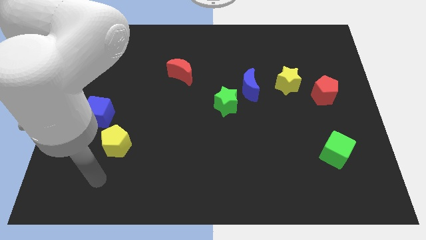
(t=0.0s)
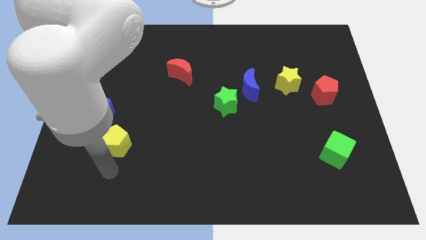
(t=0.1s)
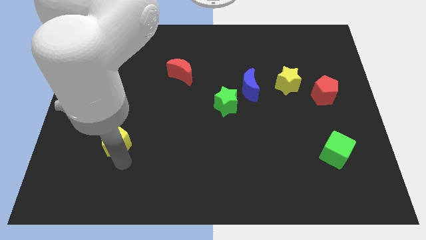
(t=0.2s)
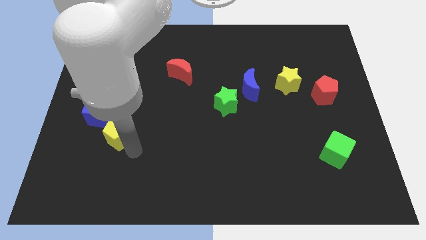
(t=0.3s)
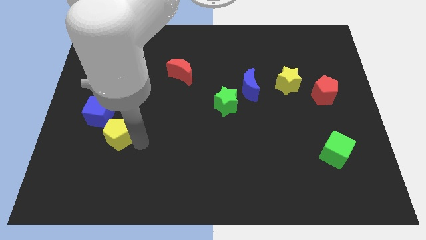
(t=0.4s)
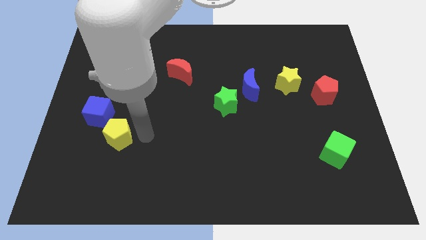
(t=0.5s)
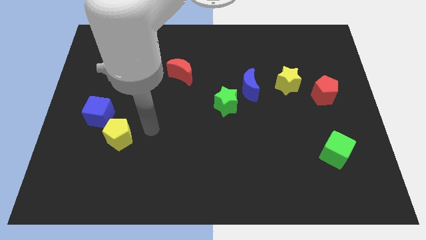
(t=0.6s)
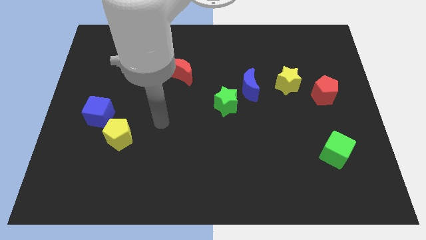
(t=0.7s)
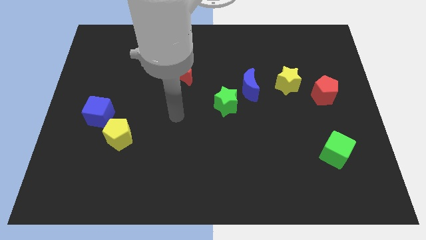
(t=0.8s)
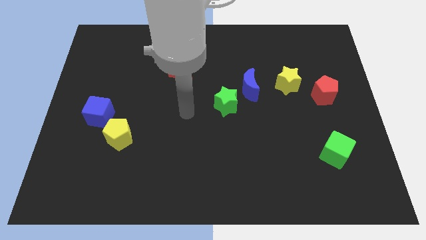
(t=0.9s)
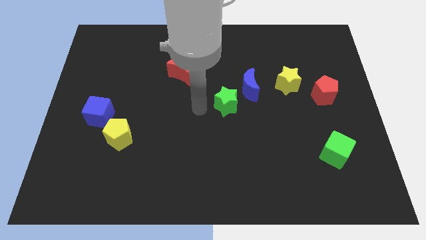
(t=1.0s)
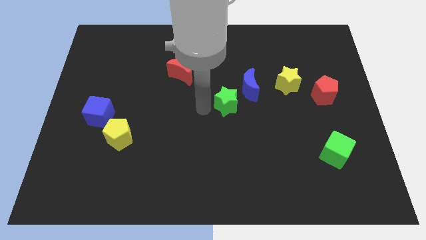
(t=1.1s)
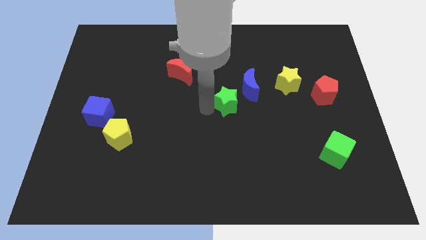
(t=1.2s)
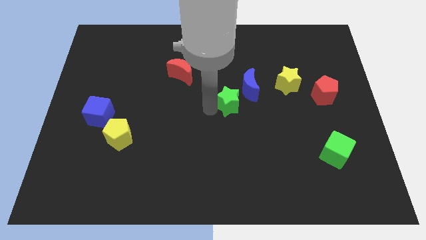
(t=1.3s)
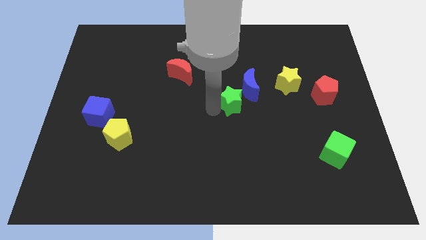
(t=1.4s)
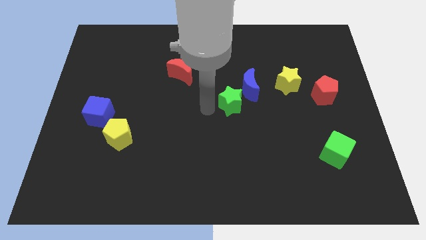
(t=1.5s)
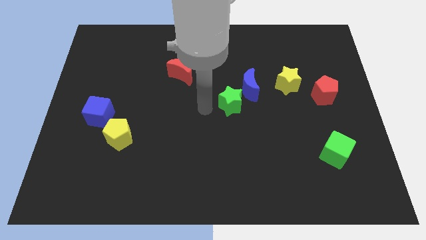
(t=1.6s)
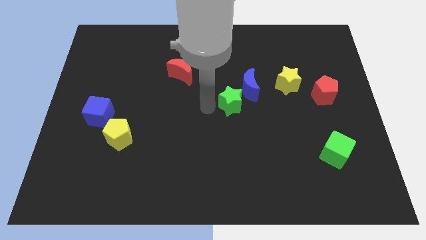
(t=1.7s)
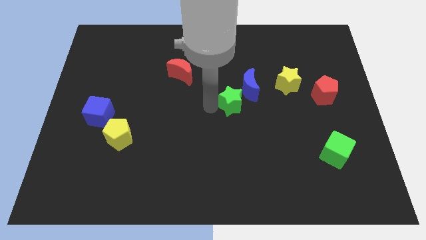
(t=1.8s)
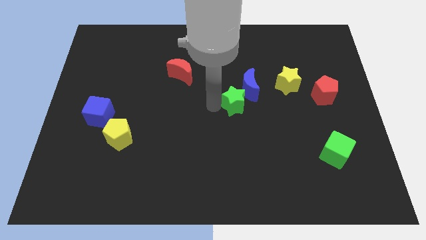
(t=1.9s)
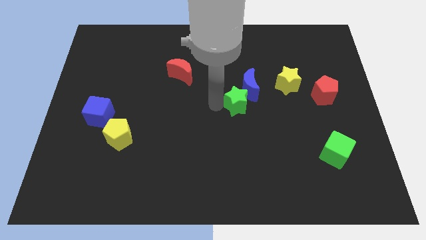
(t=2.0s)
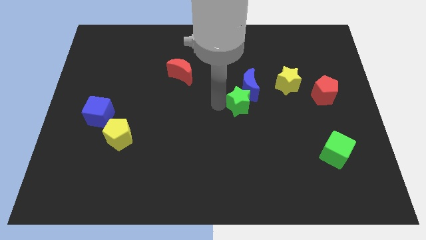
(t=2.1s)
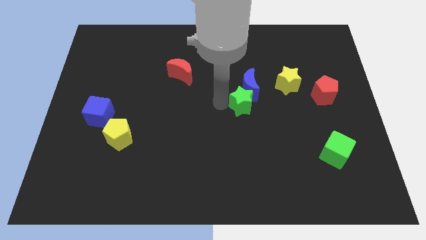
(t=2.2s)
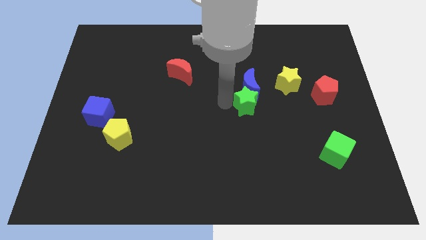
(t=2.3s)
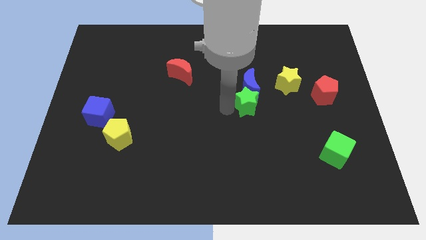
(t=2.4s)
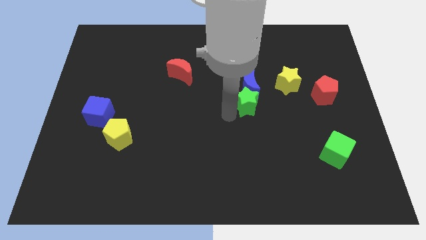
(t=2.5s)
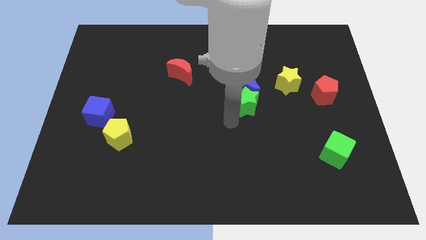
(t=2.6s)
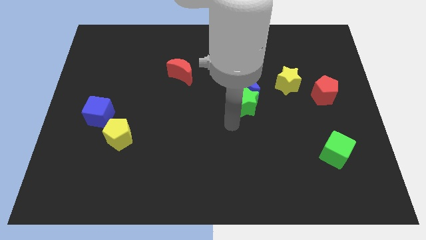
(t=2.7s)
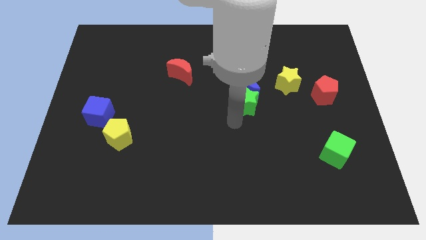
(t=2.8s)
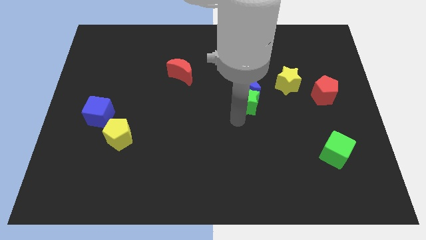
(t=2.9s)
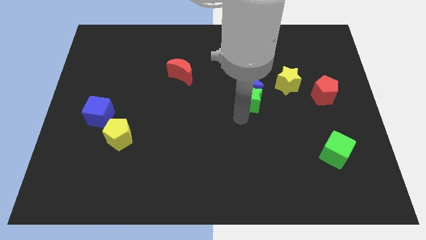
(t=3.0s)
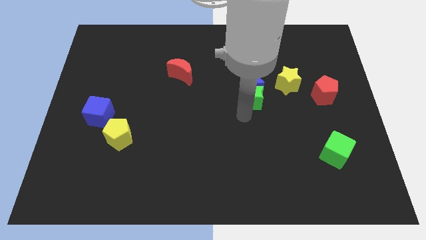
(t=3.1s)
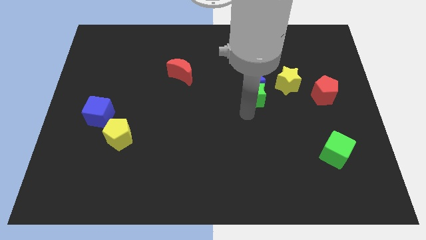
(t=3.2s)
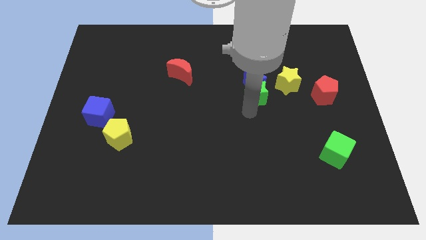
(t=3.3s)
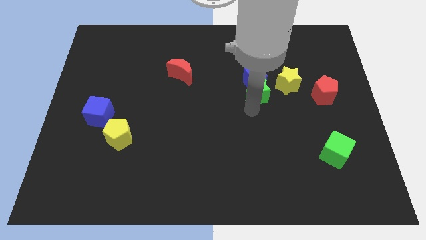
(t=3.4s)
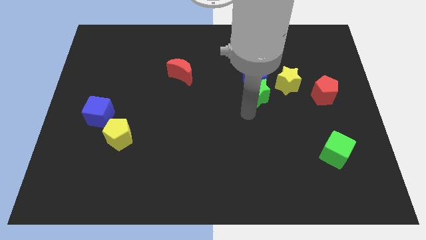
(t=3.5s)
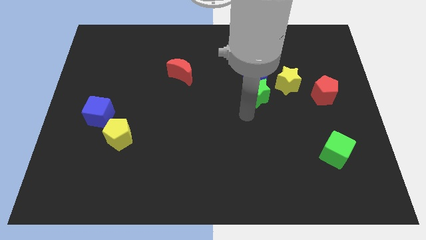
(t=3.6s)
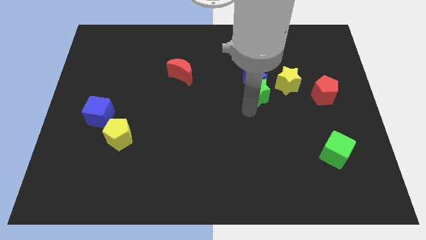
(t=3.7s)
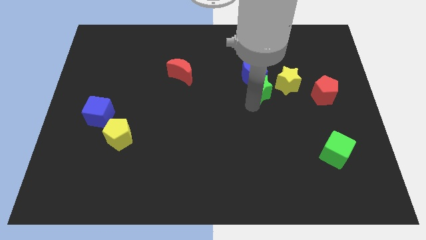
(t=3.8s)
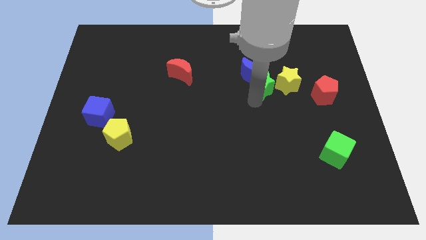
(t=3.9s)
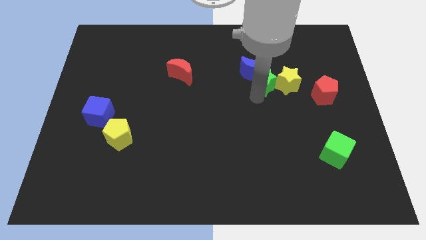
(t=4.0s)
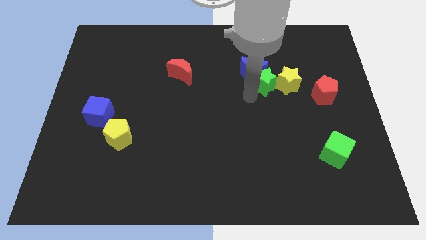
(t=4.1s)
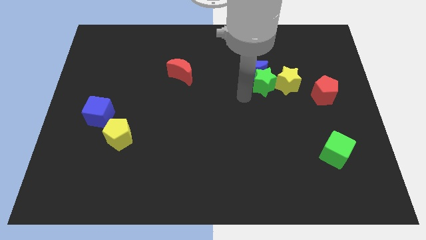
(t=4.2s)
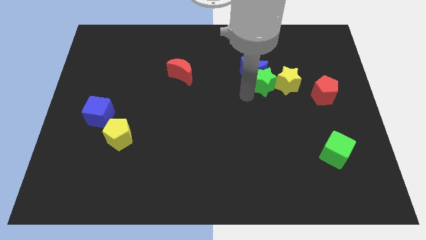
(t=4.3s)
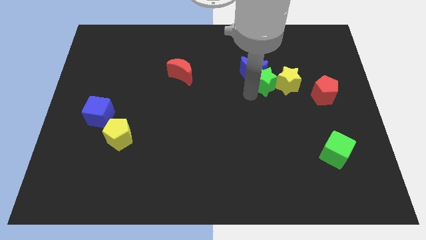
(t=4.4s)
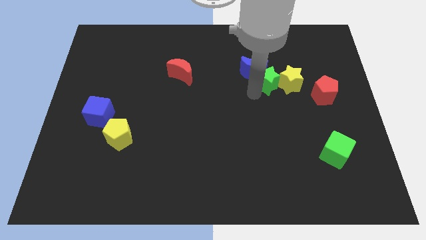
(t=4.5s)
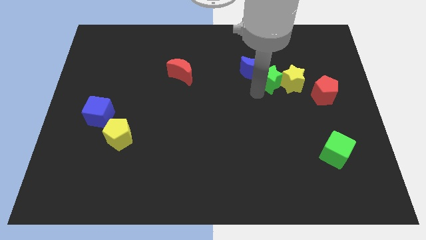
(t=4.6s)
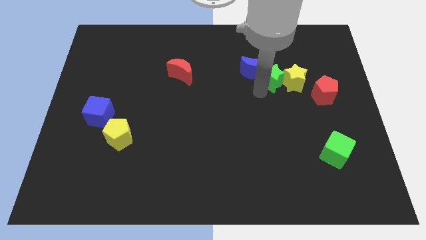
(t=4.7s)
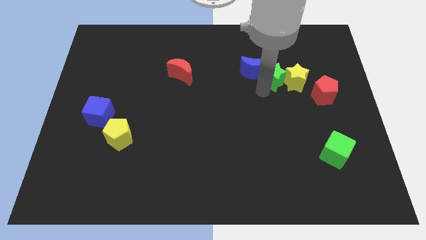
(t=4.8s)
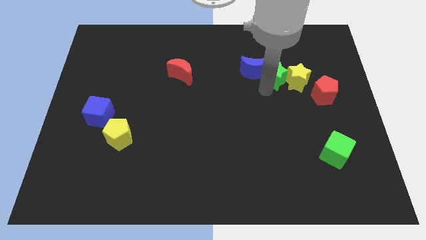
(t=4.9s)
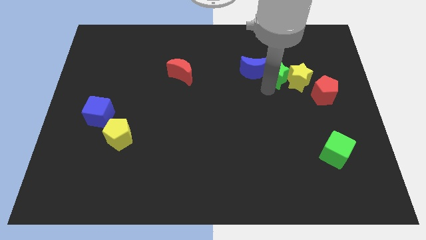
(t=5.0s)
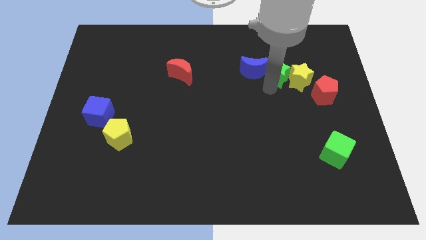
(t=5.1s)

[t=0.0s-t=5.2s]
put the green star to the top left side of the red pentagon

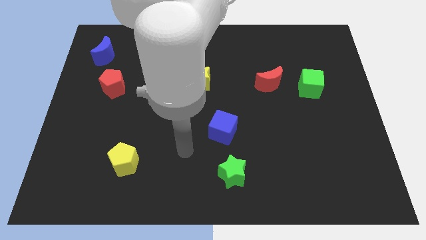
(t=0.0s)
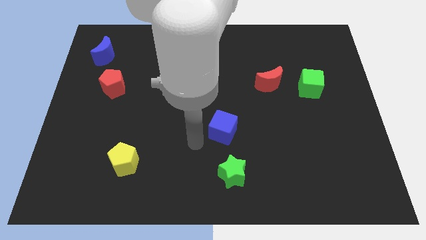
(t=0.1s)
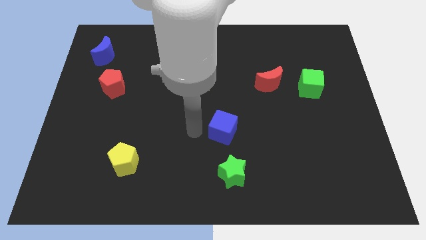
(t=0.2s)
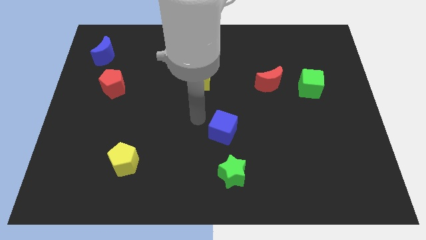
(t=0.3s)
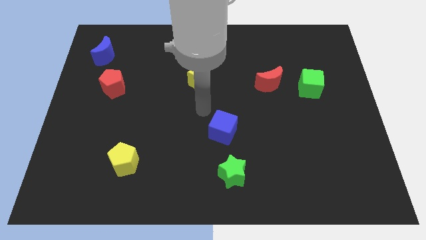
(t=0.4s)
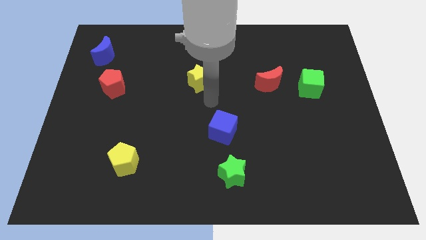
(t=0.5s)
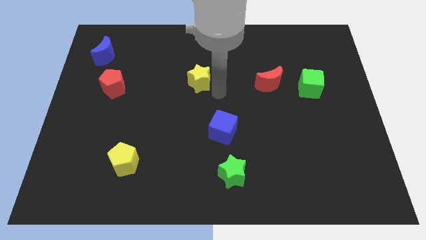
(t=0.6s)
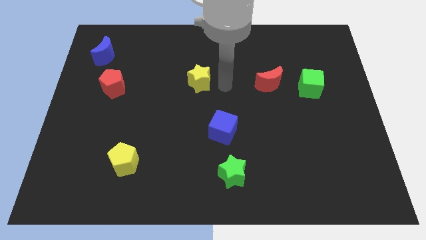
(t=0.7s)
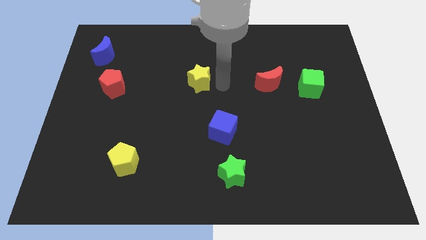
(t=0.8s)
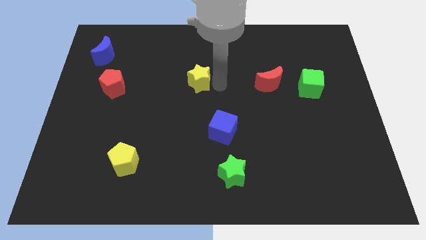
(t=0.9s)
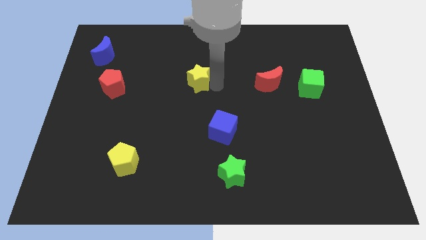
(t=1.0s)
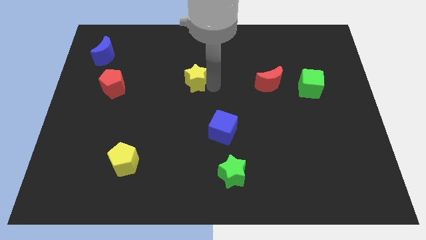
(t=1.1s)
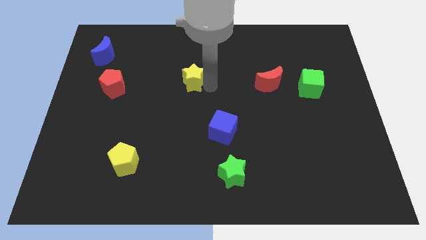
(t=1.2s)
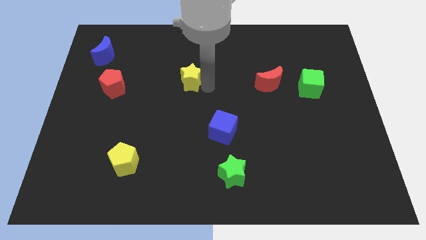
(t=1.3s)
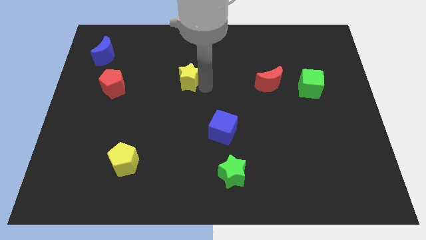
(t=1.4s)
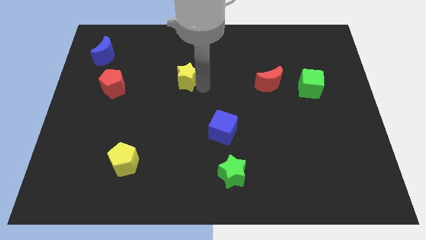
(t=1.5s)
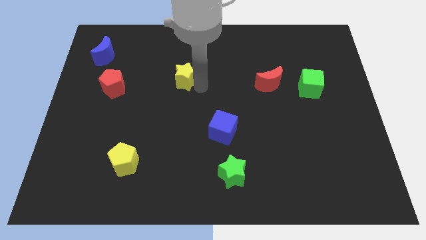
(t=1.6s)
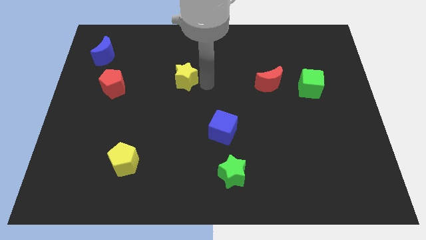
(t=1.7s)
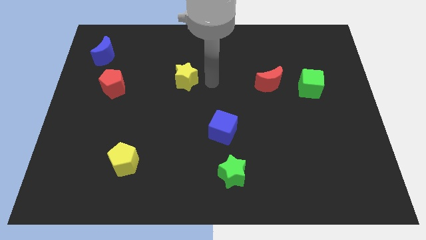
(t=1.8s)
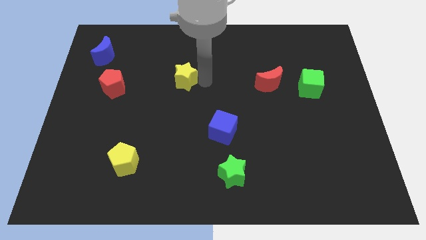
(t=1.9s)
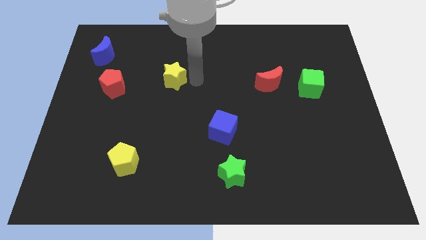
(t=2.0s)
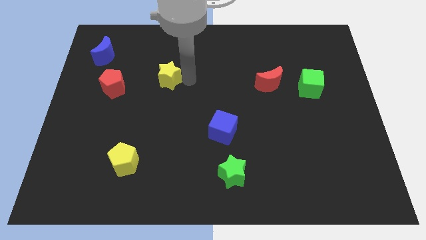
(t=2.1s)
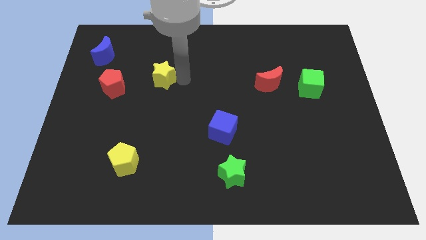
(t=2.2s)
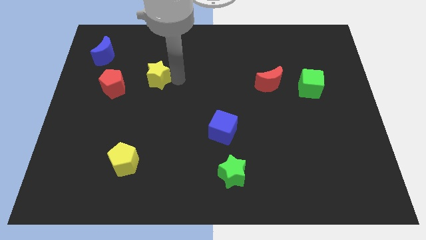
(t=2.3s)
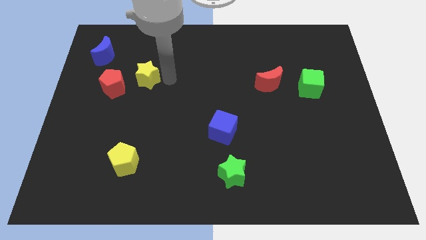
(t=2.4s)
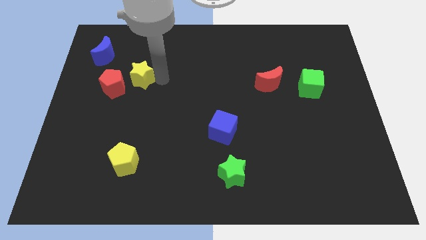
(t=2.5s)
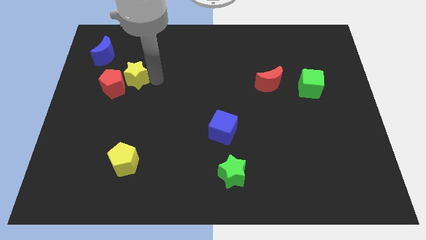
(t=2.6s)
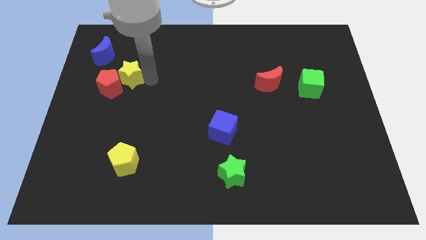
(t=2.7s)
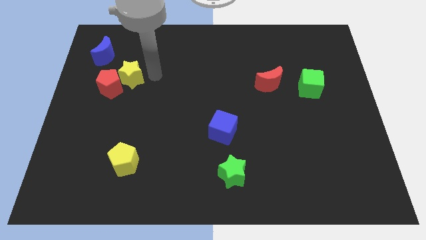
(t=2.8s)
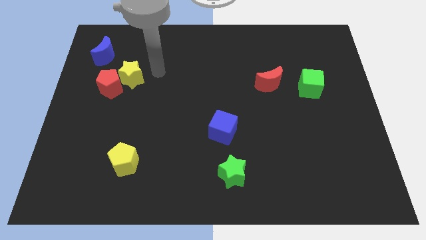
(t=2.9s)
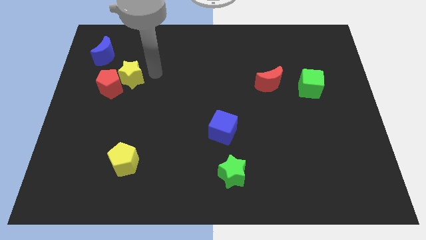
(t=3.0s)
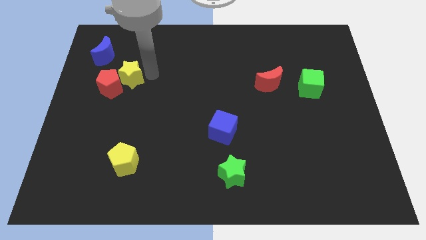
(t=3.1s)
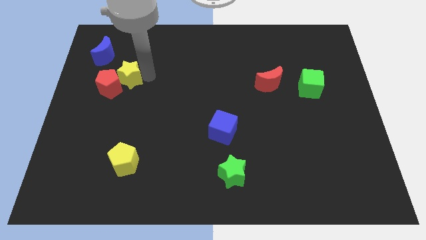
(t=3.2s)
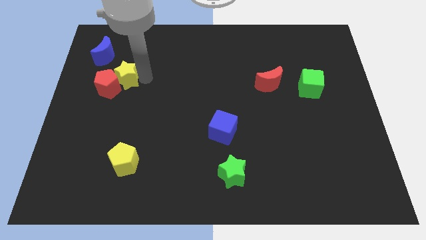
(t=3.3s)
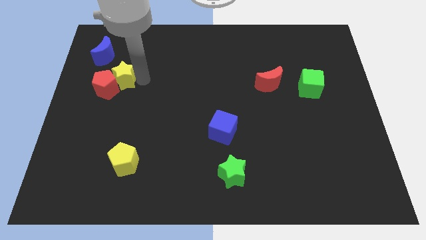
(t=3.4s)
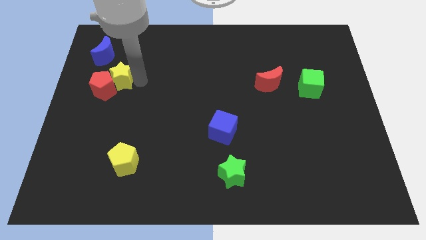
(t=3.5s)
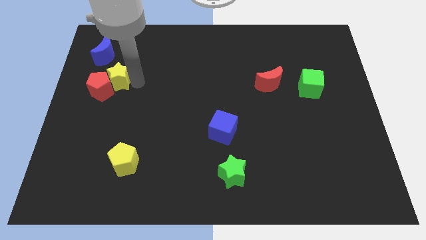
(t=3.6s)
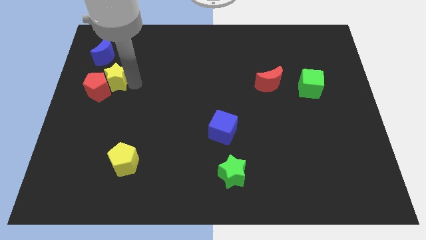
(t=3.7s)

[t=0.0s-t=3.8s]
slide the yellow star below the blue moon
